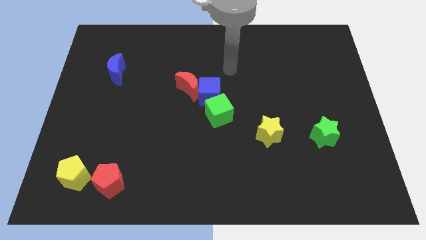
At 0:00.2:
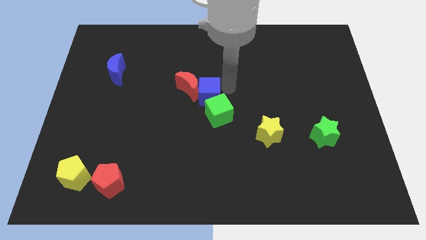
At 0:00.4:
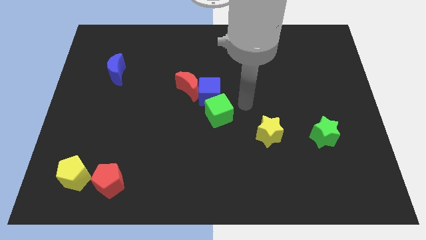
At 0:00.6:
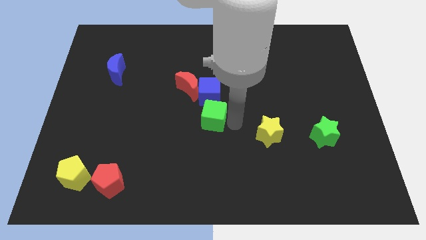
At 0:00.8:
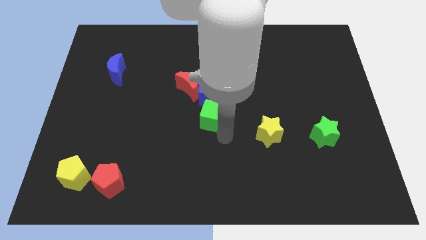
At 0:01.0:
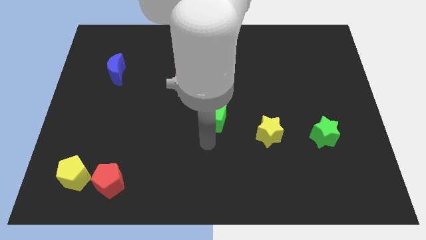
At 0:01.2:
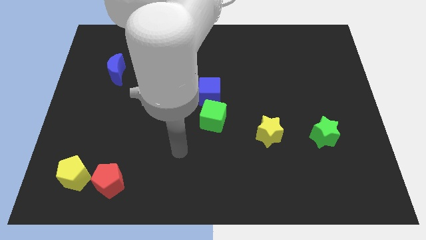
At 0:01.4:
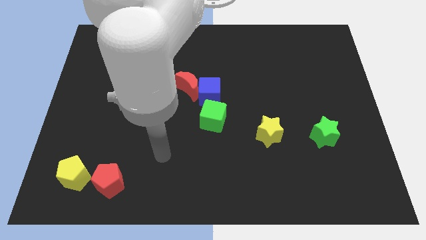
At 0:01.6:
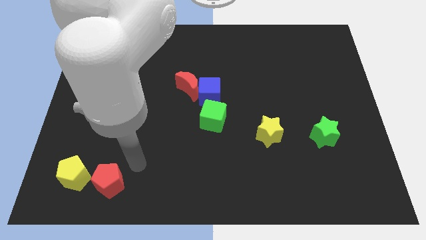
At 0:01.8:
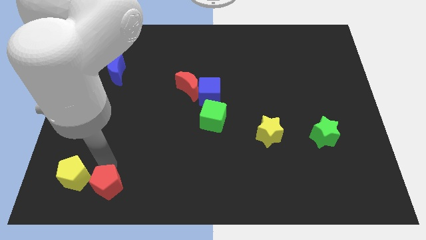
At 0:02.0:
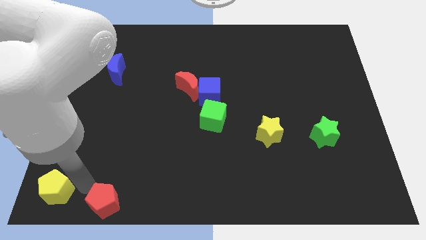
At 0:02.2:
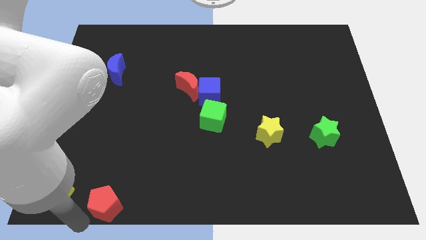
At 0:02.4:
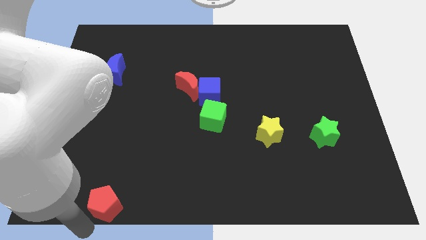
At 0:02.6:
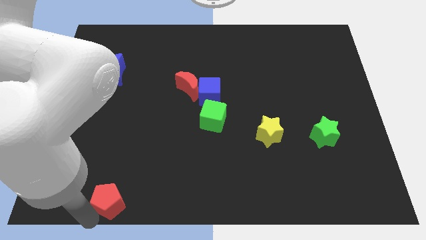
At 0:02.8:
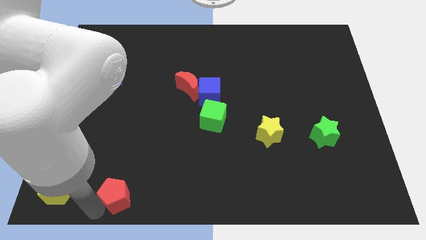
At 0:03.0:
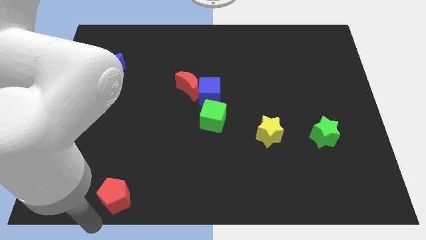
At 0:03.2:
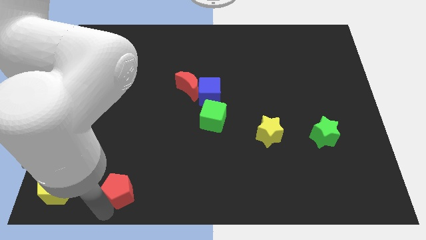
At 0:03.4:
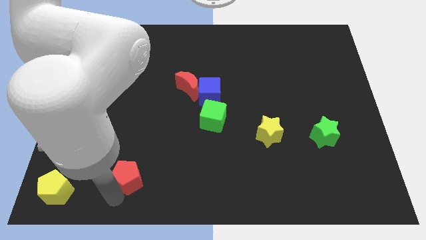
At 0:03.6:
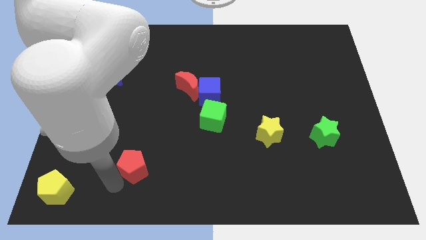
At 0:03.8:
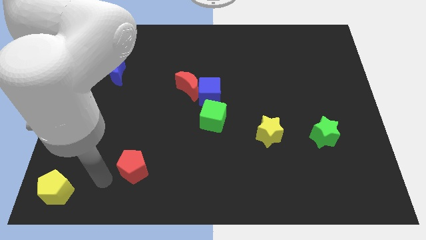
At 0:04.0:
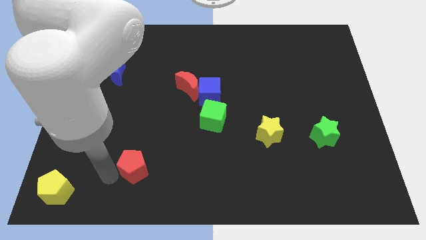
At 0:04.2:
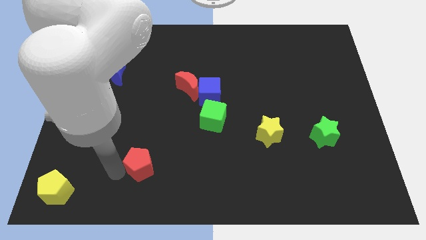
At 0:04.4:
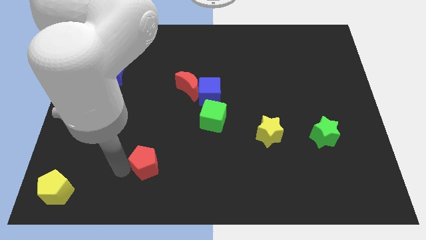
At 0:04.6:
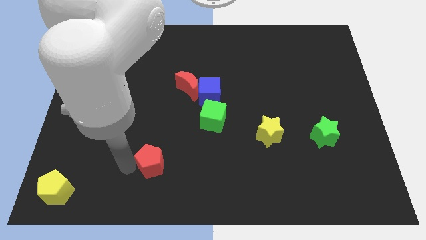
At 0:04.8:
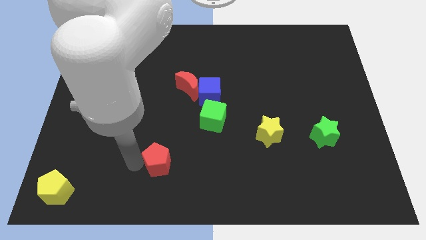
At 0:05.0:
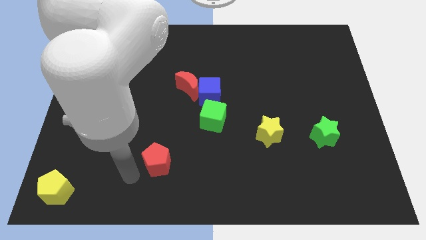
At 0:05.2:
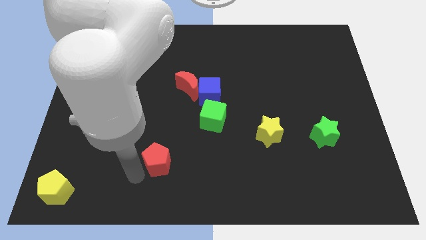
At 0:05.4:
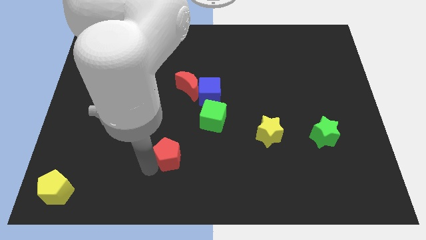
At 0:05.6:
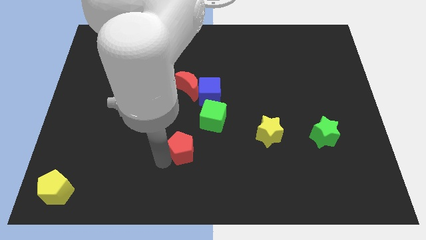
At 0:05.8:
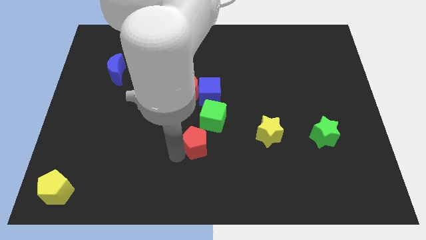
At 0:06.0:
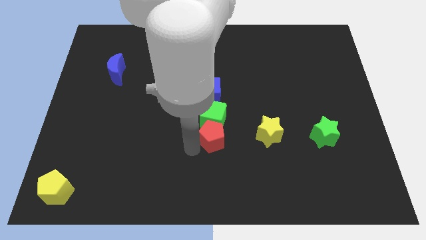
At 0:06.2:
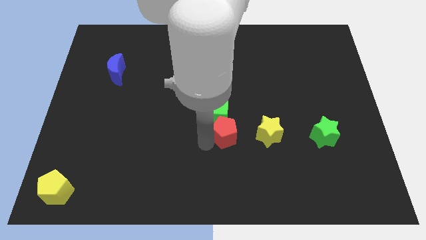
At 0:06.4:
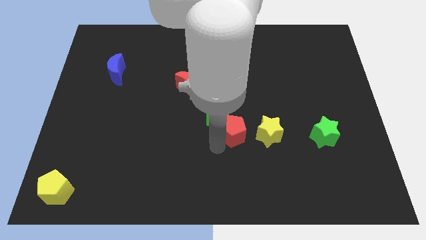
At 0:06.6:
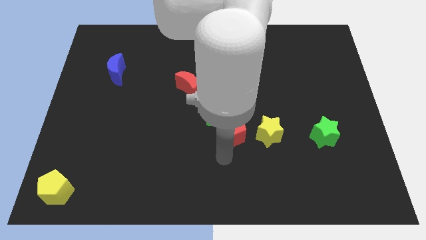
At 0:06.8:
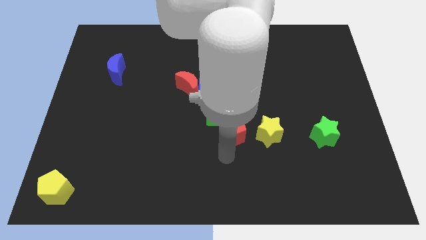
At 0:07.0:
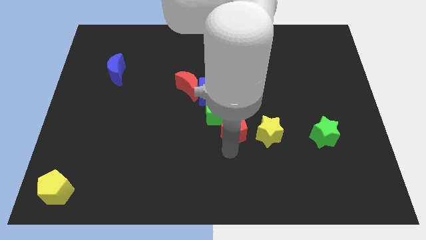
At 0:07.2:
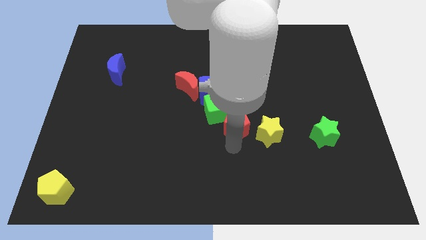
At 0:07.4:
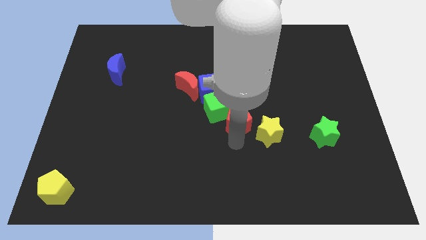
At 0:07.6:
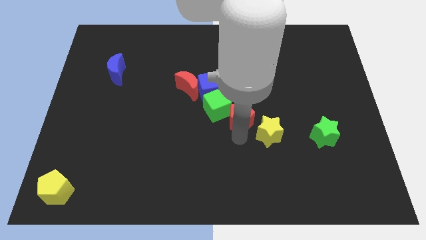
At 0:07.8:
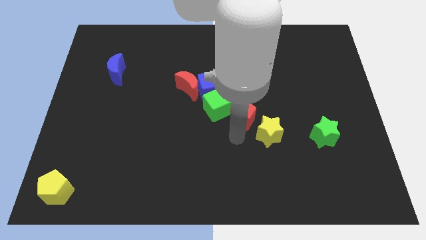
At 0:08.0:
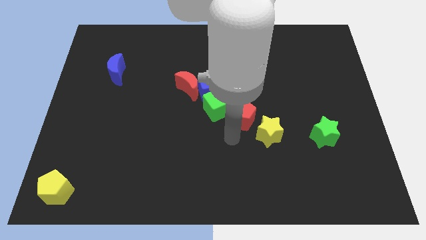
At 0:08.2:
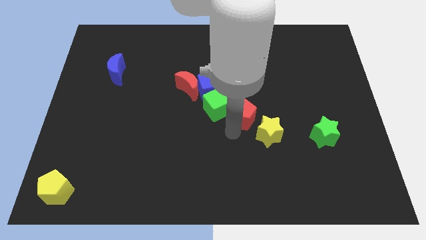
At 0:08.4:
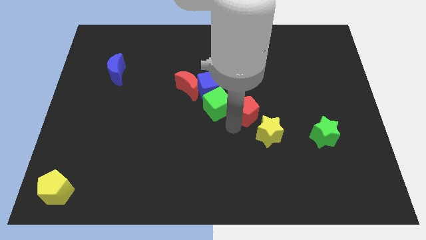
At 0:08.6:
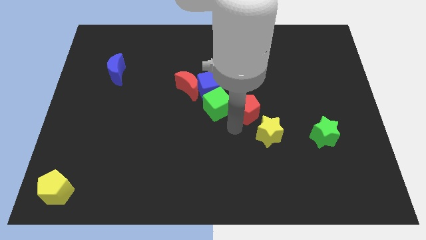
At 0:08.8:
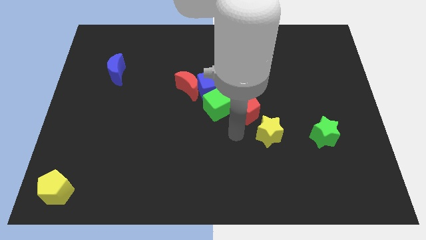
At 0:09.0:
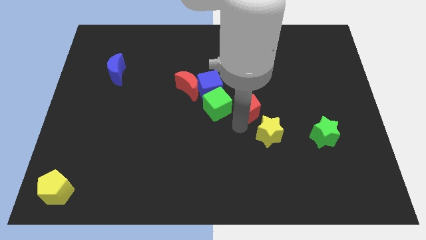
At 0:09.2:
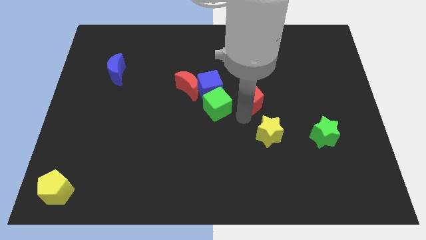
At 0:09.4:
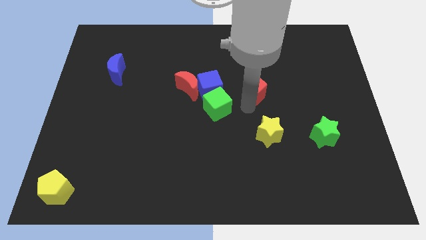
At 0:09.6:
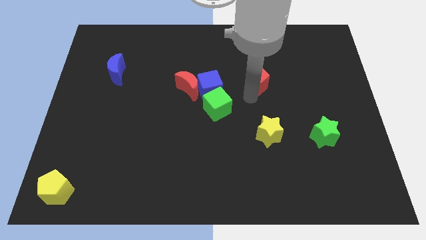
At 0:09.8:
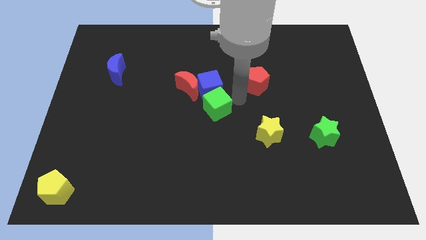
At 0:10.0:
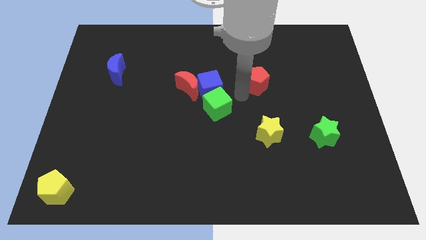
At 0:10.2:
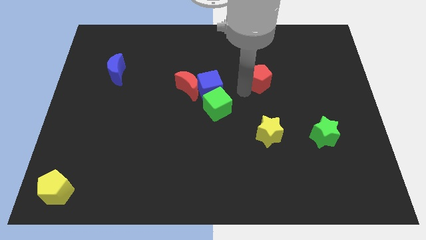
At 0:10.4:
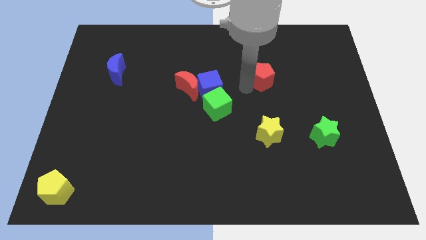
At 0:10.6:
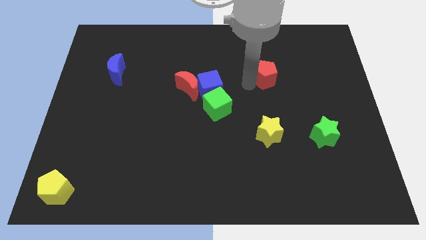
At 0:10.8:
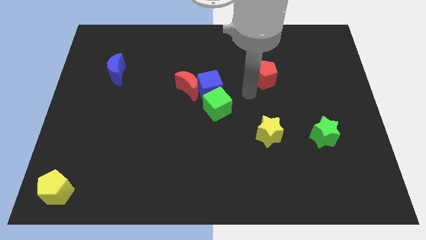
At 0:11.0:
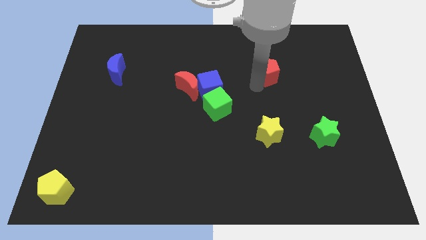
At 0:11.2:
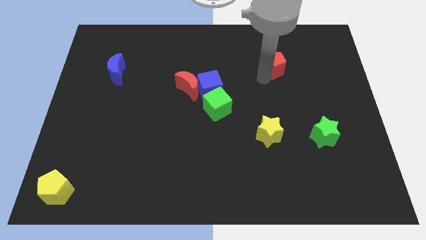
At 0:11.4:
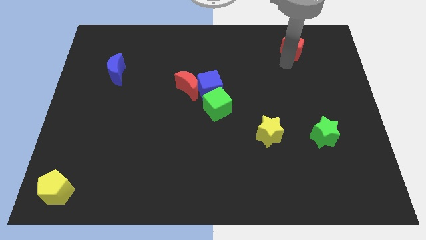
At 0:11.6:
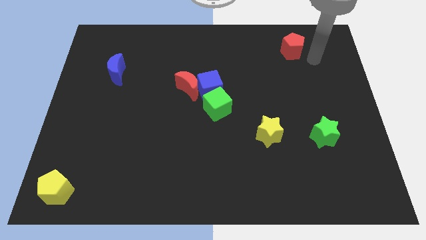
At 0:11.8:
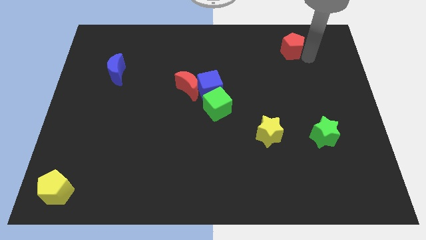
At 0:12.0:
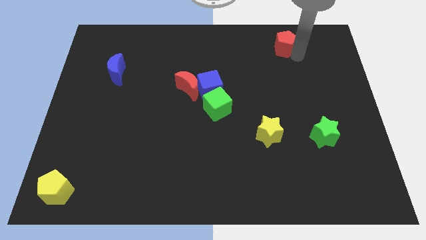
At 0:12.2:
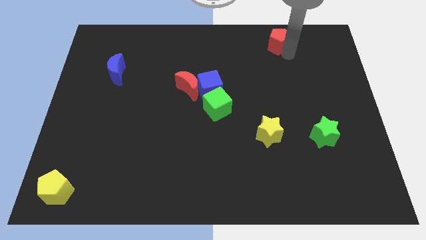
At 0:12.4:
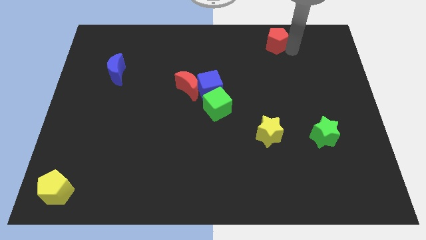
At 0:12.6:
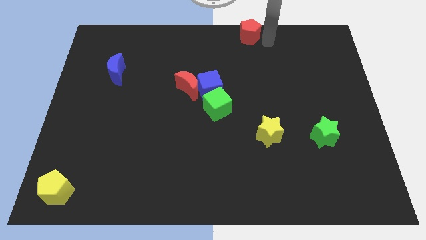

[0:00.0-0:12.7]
push the red pentagon to the top side

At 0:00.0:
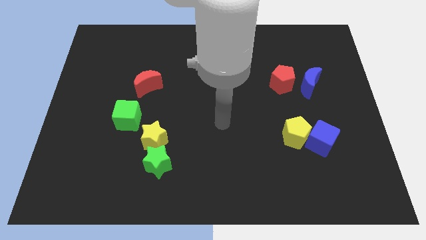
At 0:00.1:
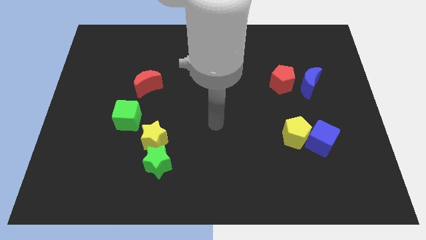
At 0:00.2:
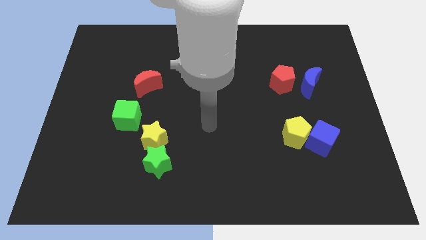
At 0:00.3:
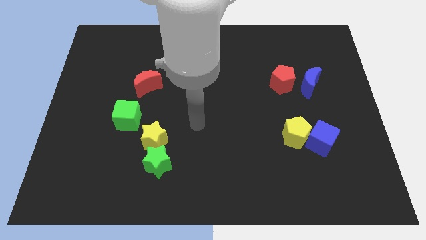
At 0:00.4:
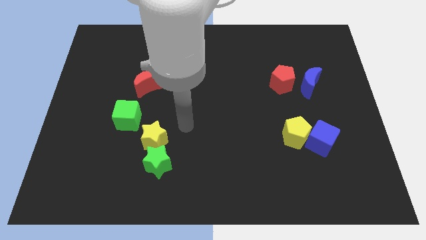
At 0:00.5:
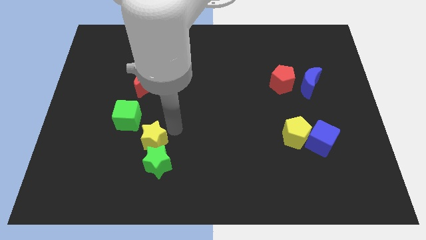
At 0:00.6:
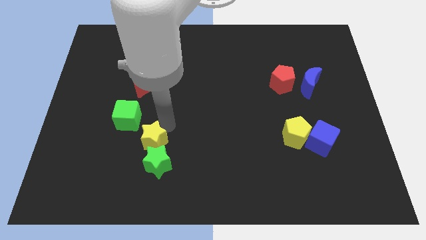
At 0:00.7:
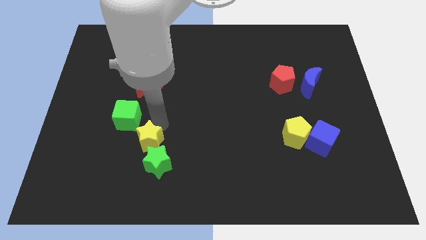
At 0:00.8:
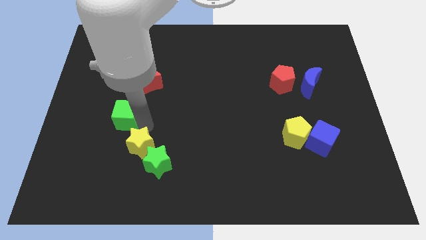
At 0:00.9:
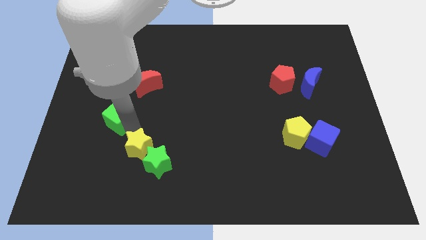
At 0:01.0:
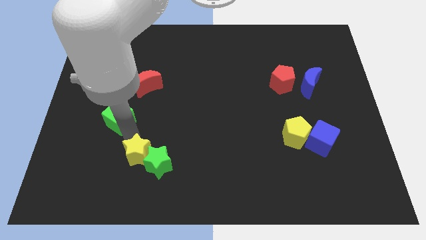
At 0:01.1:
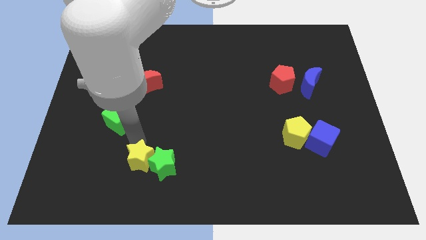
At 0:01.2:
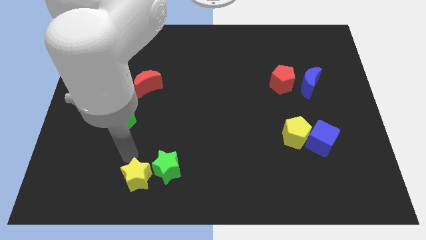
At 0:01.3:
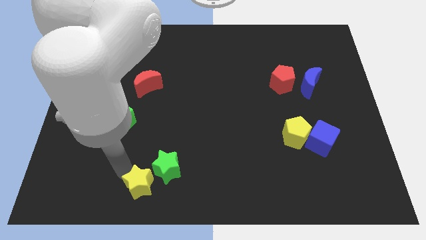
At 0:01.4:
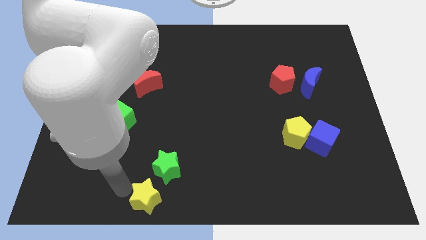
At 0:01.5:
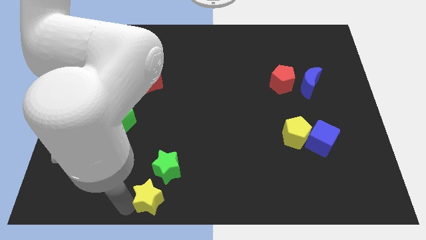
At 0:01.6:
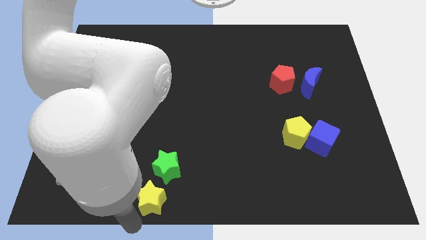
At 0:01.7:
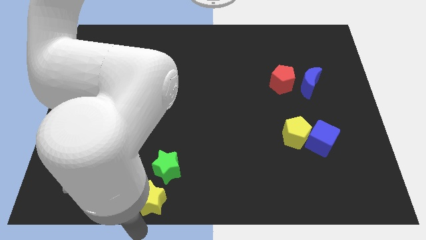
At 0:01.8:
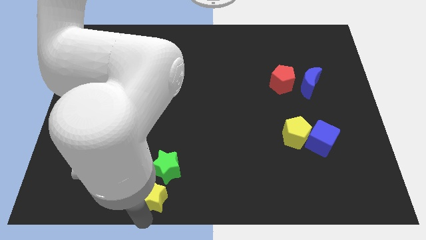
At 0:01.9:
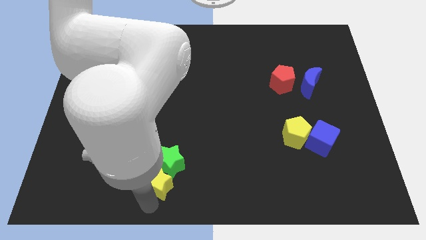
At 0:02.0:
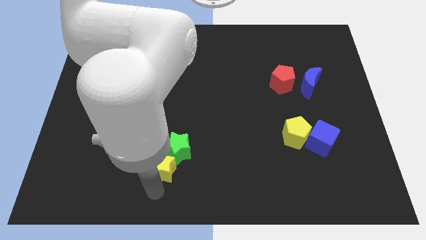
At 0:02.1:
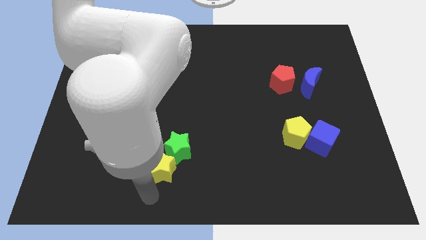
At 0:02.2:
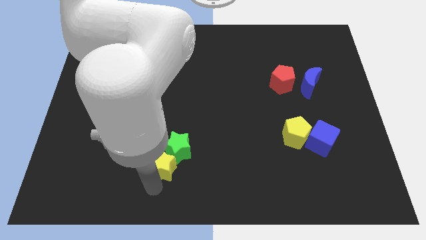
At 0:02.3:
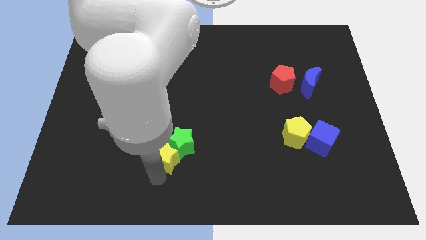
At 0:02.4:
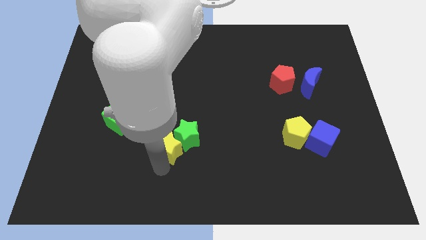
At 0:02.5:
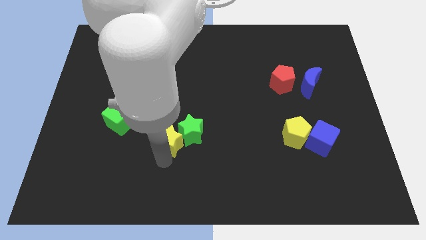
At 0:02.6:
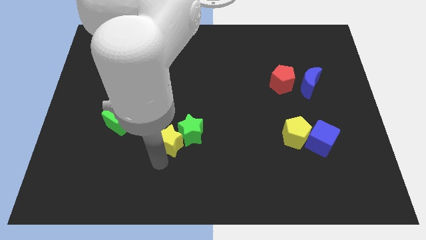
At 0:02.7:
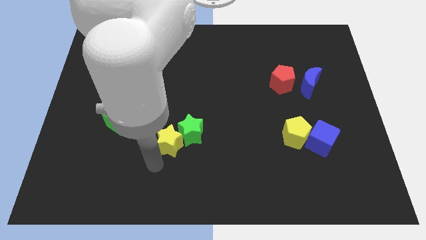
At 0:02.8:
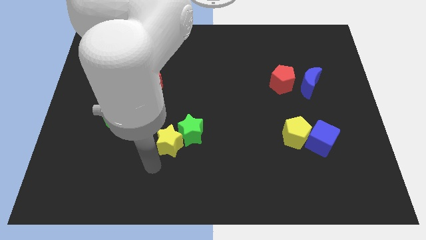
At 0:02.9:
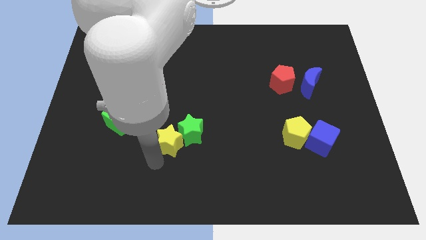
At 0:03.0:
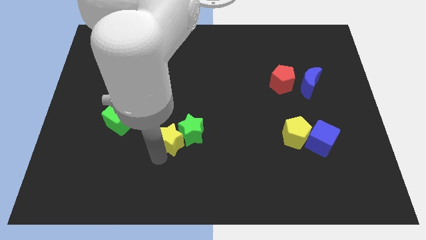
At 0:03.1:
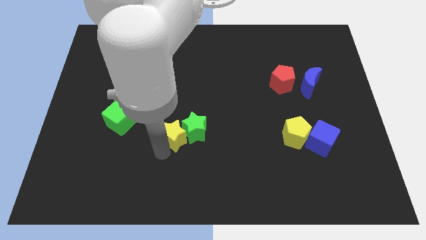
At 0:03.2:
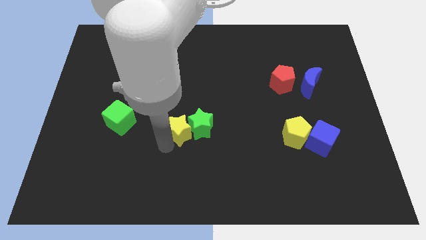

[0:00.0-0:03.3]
move the yellow star to the center
